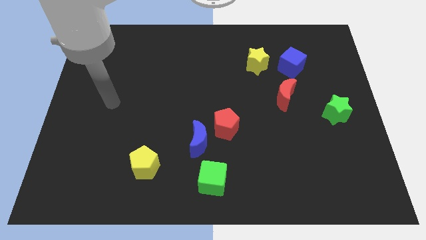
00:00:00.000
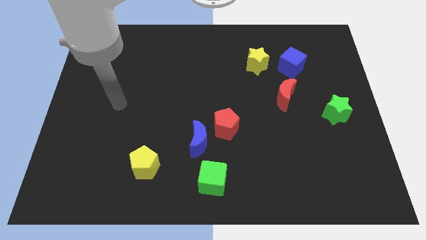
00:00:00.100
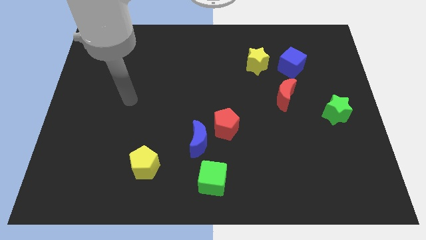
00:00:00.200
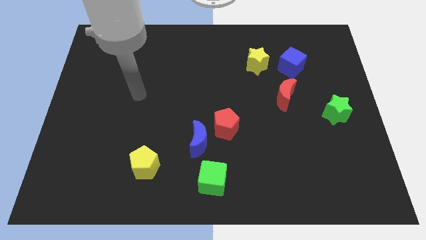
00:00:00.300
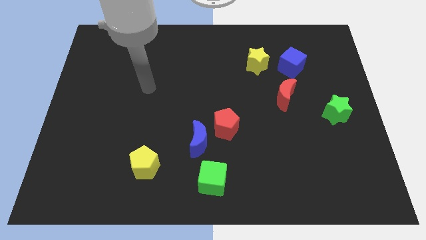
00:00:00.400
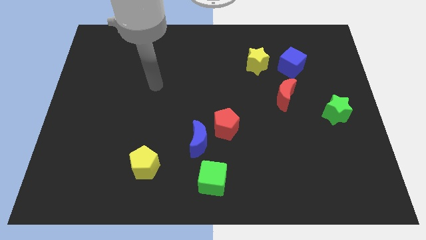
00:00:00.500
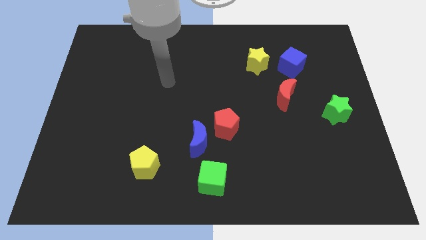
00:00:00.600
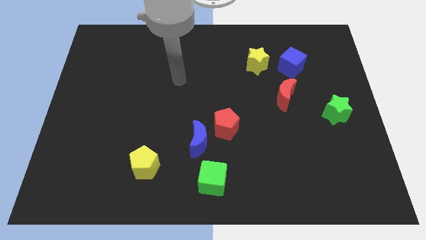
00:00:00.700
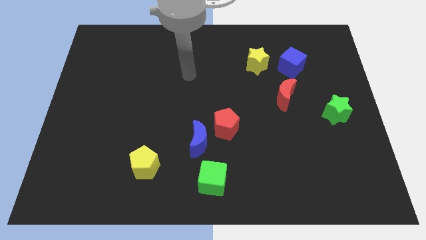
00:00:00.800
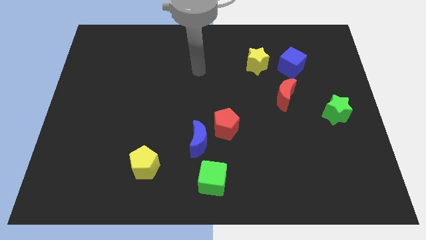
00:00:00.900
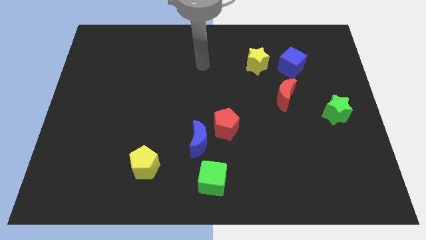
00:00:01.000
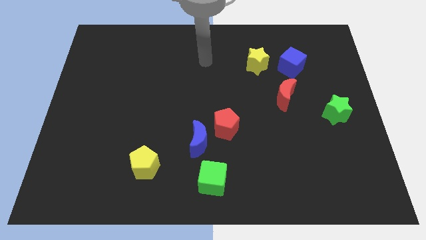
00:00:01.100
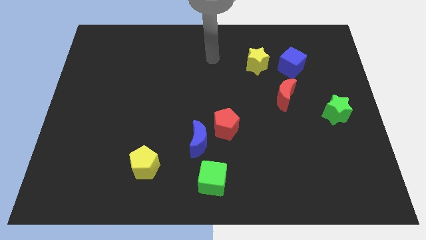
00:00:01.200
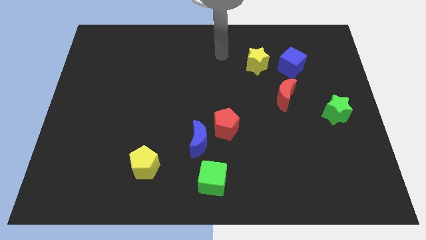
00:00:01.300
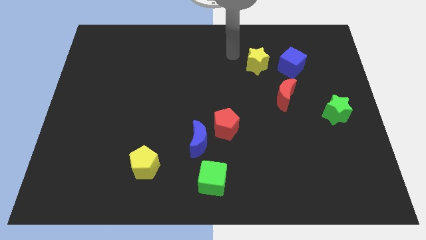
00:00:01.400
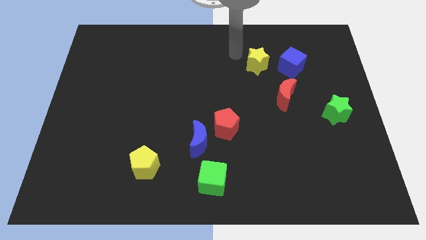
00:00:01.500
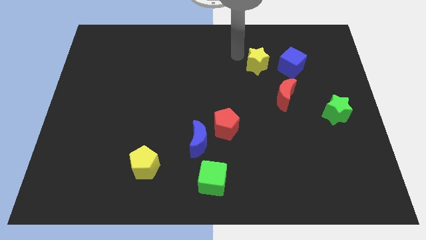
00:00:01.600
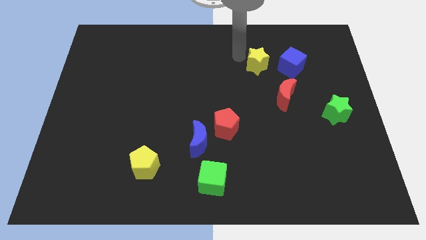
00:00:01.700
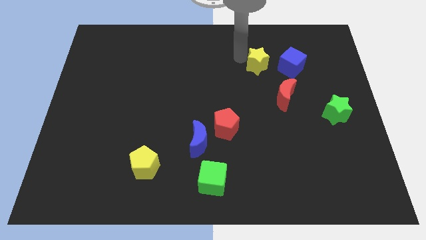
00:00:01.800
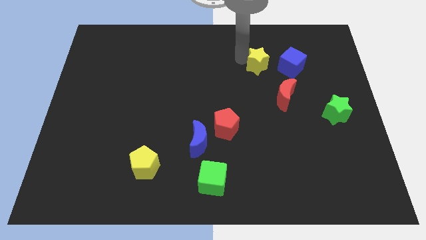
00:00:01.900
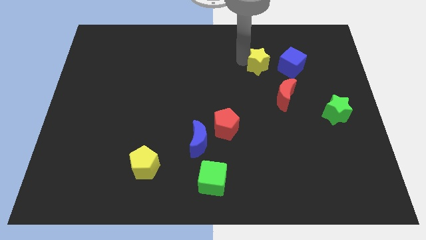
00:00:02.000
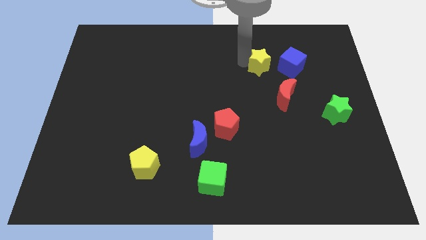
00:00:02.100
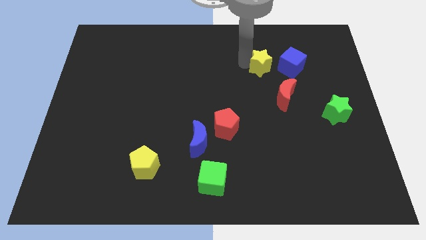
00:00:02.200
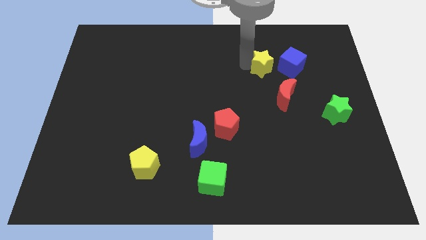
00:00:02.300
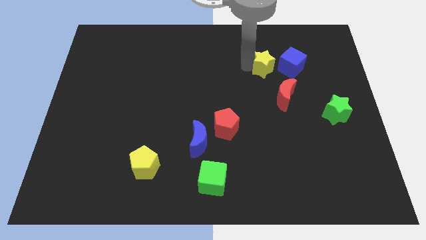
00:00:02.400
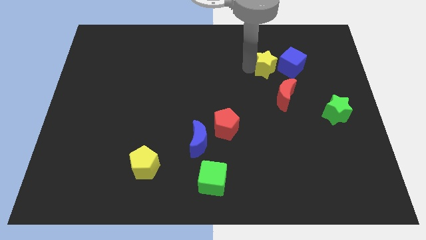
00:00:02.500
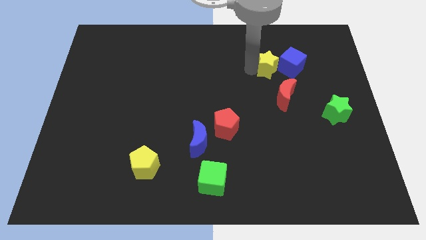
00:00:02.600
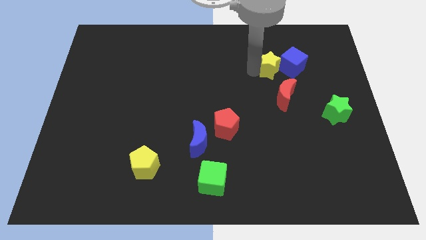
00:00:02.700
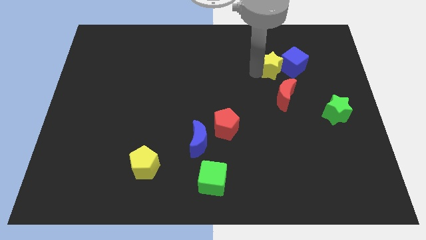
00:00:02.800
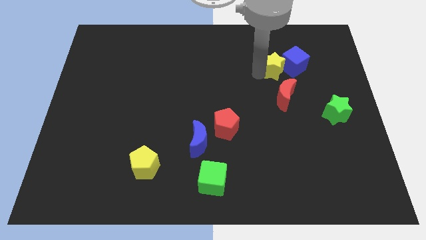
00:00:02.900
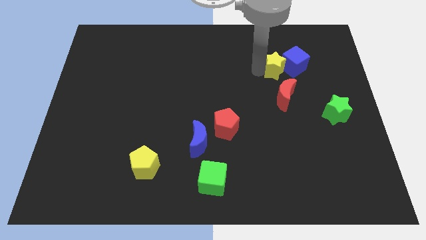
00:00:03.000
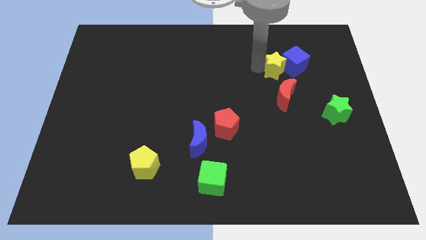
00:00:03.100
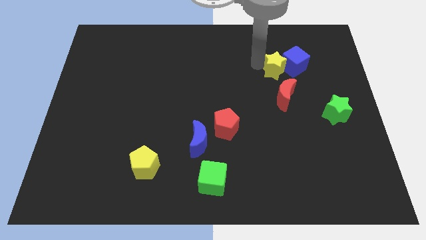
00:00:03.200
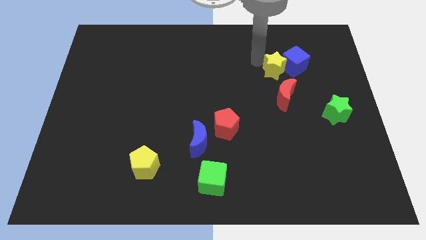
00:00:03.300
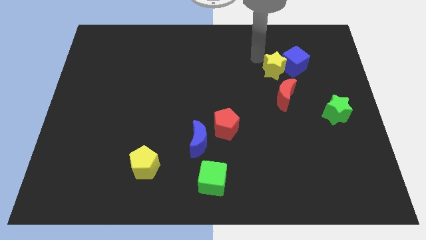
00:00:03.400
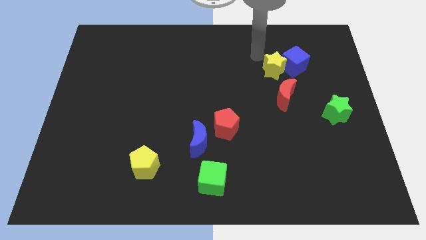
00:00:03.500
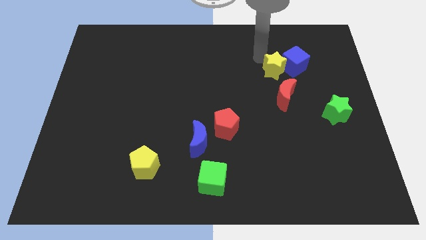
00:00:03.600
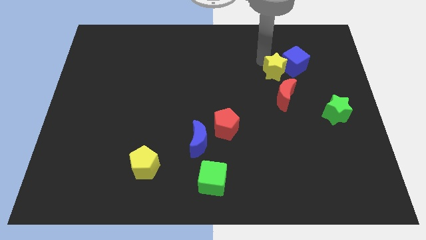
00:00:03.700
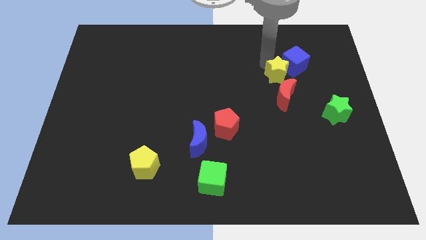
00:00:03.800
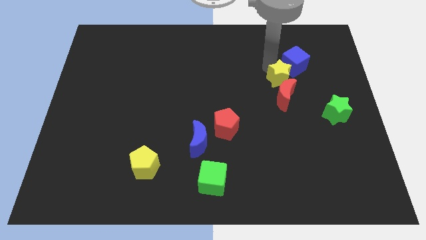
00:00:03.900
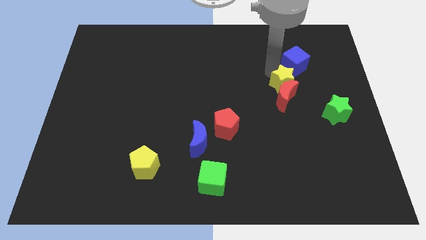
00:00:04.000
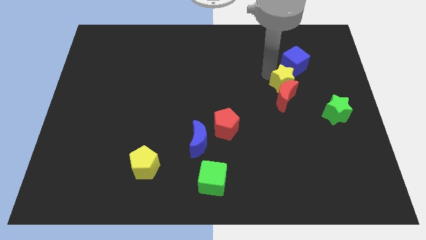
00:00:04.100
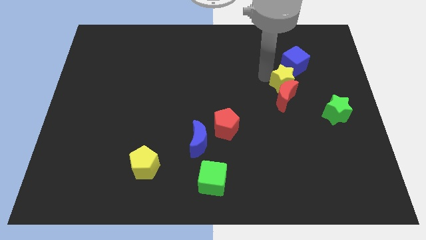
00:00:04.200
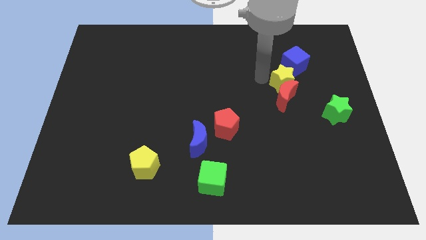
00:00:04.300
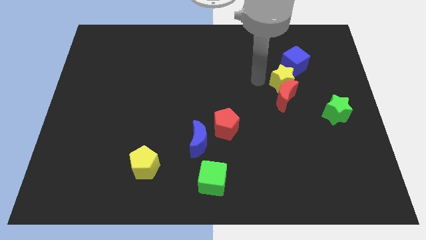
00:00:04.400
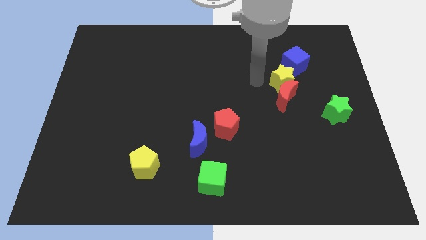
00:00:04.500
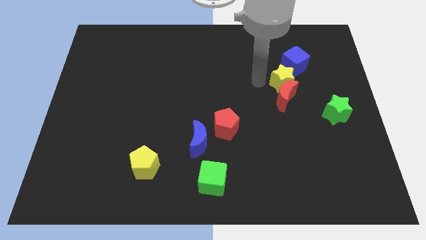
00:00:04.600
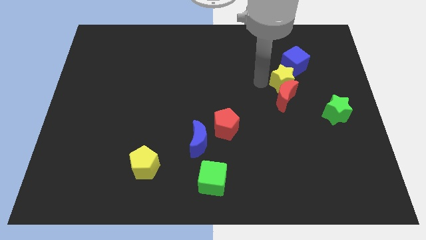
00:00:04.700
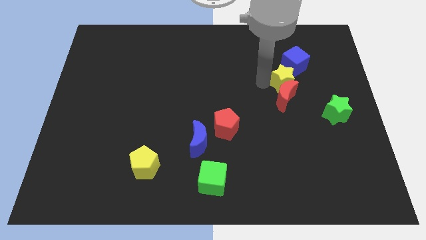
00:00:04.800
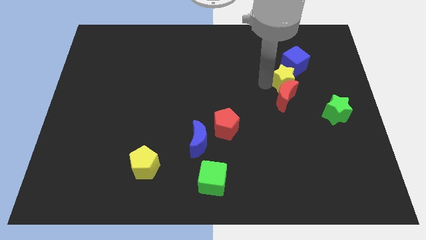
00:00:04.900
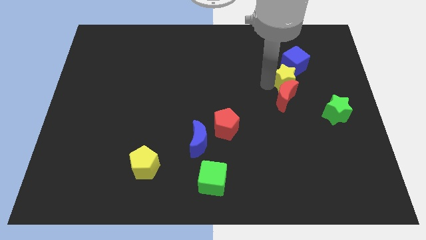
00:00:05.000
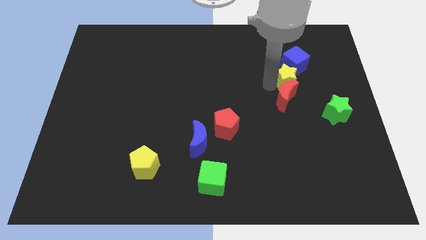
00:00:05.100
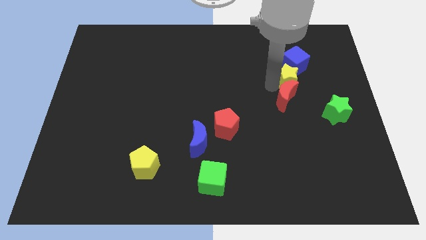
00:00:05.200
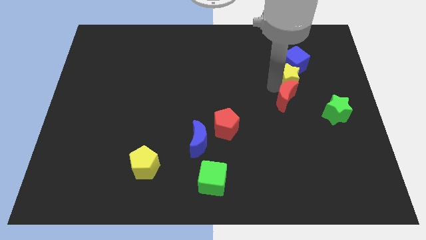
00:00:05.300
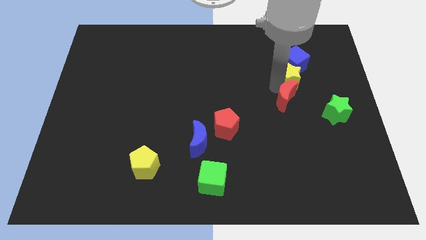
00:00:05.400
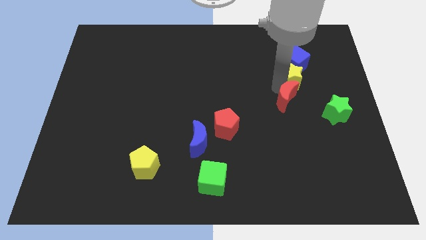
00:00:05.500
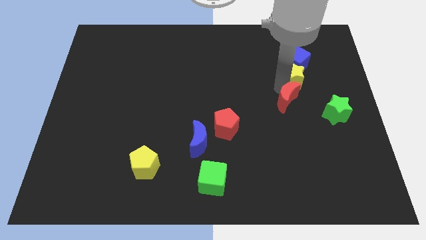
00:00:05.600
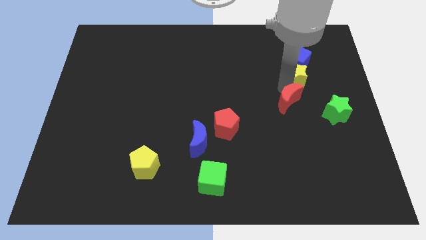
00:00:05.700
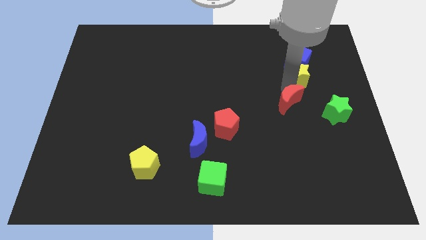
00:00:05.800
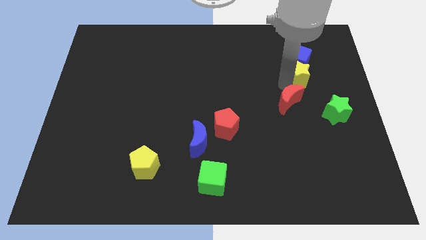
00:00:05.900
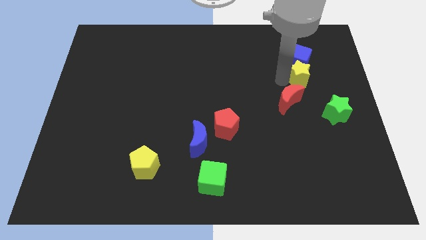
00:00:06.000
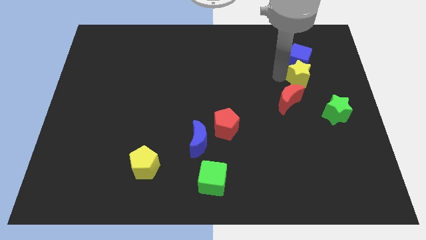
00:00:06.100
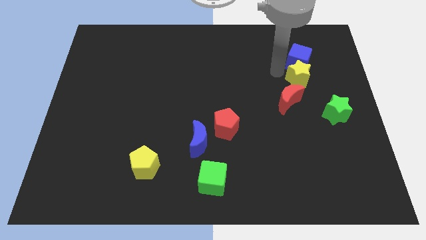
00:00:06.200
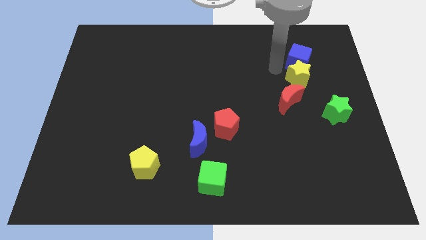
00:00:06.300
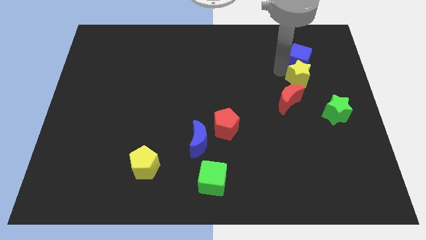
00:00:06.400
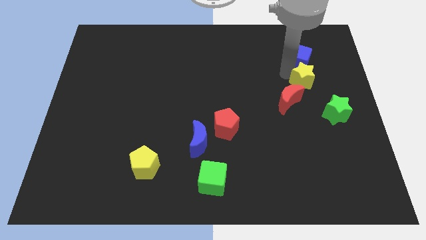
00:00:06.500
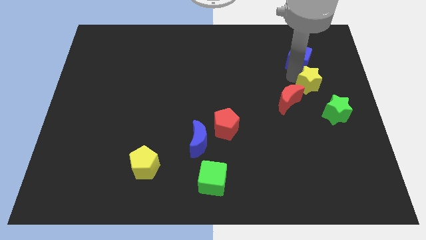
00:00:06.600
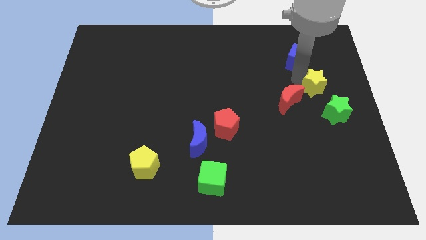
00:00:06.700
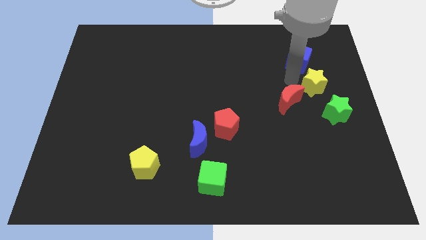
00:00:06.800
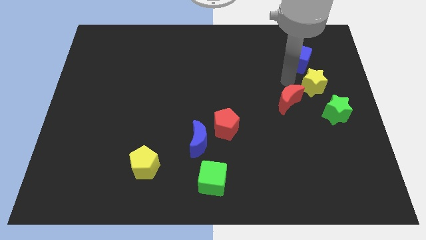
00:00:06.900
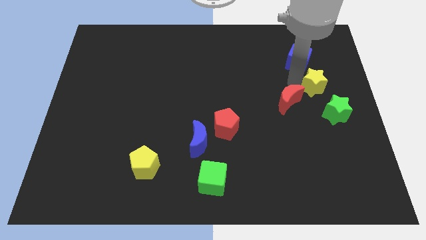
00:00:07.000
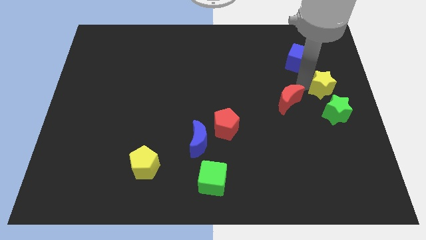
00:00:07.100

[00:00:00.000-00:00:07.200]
put the yellow star to the right side of the board
